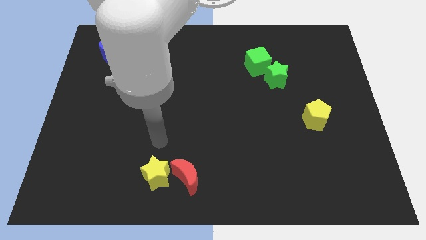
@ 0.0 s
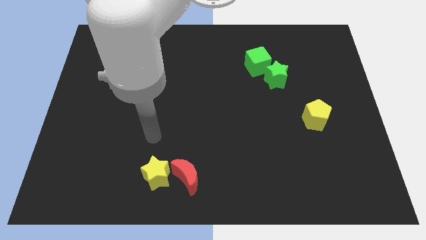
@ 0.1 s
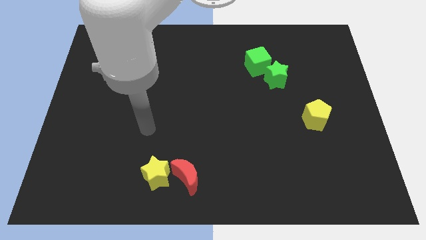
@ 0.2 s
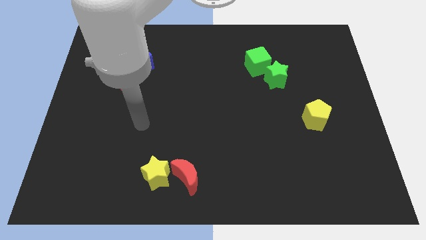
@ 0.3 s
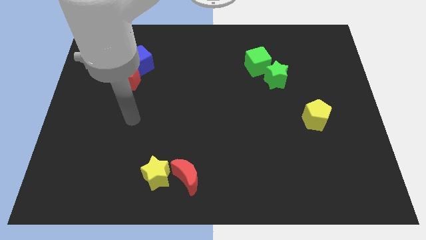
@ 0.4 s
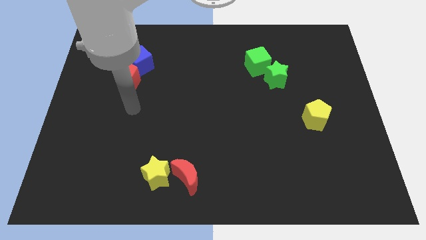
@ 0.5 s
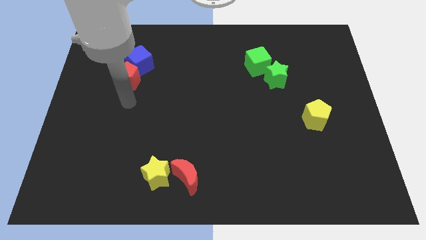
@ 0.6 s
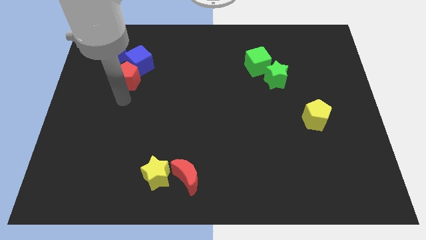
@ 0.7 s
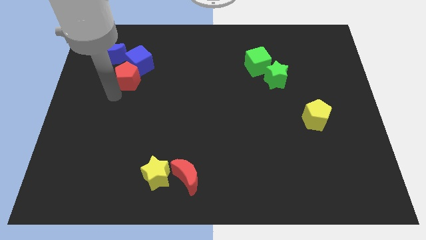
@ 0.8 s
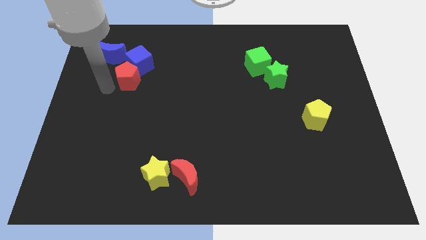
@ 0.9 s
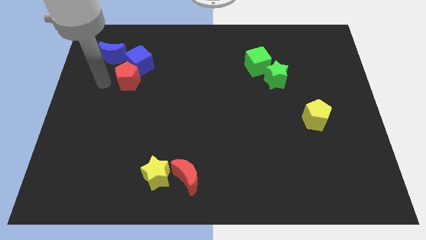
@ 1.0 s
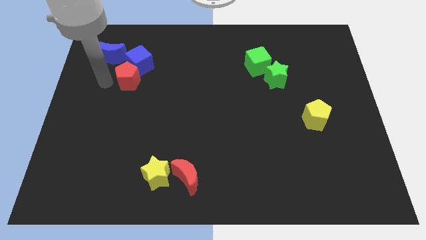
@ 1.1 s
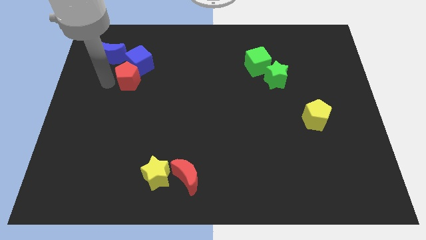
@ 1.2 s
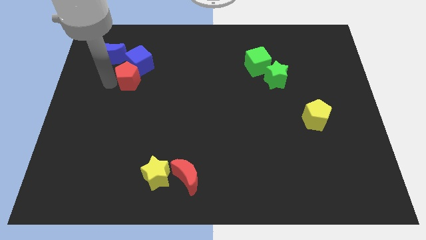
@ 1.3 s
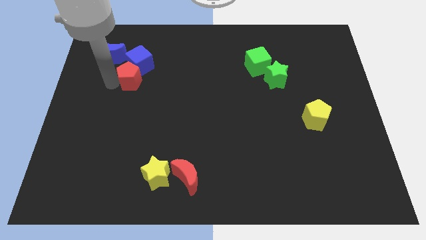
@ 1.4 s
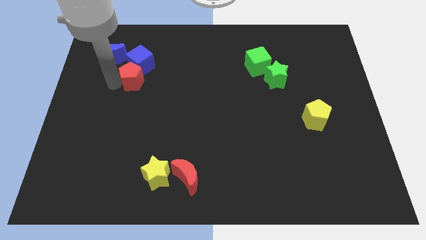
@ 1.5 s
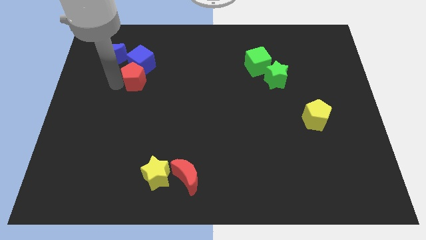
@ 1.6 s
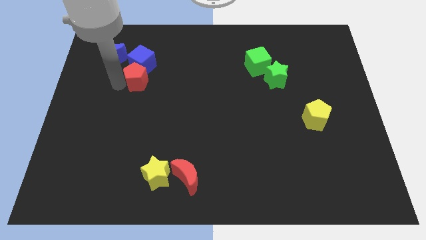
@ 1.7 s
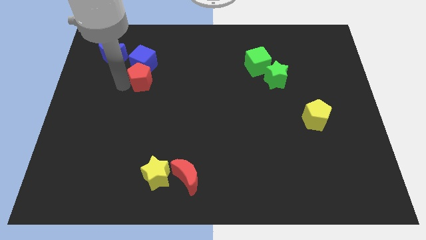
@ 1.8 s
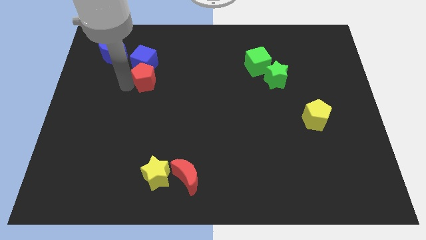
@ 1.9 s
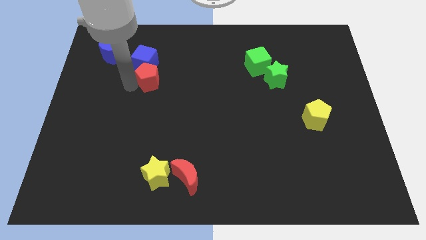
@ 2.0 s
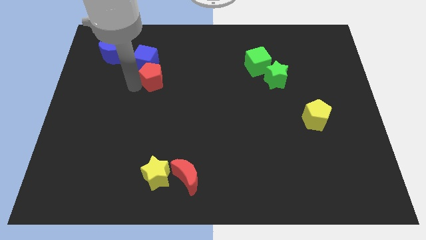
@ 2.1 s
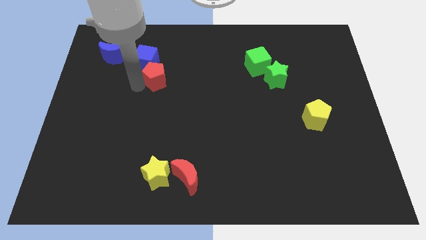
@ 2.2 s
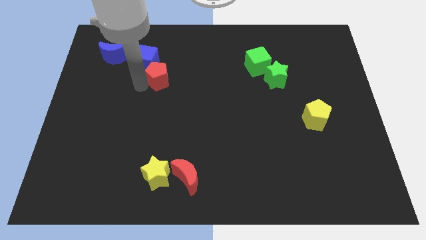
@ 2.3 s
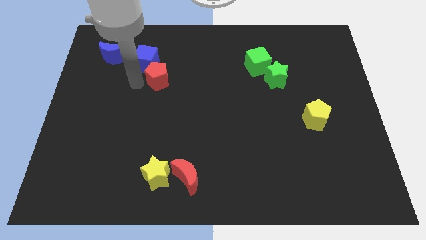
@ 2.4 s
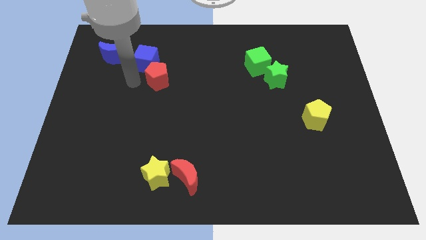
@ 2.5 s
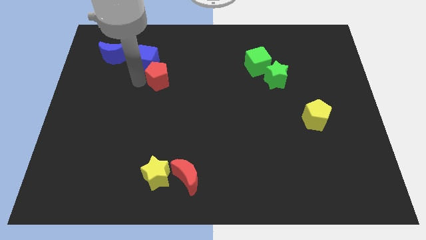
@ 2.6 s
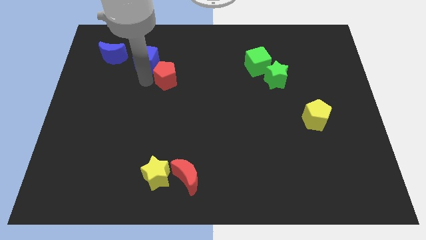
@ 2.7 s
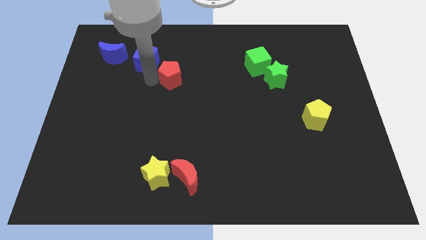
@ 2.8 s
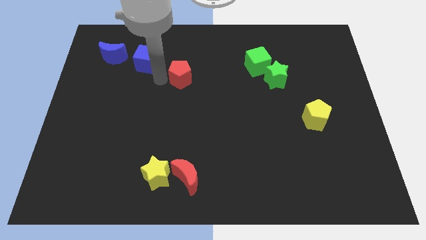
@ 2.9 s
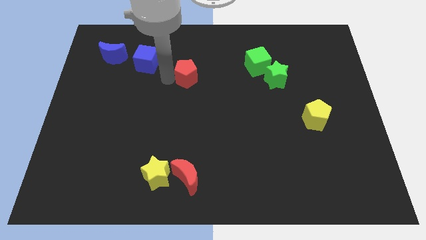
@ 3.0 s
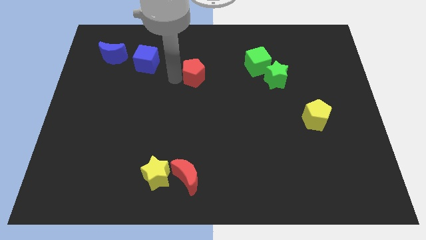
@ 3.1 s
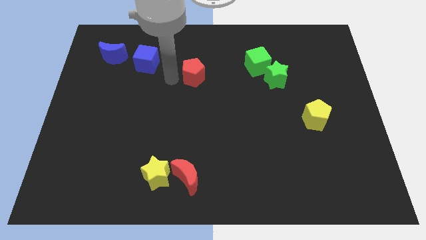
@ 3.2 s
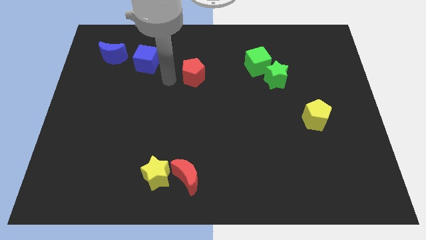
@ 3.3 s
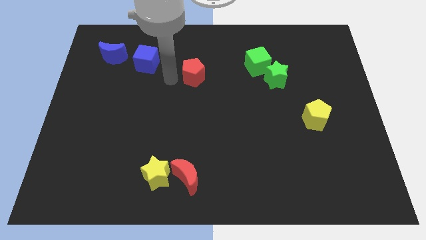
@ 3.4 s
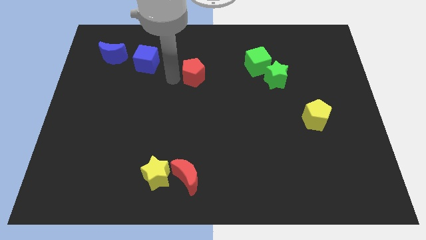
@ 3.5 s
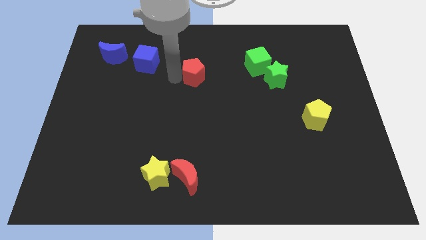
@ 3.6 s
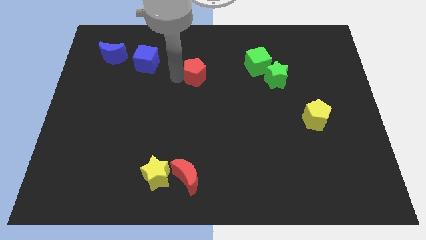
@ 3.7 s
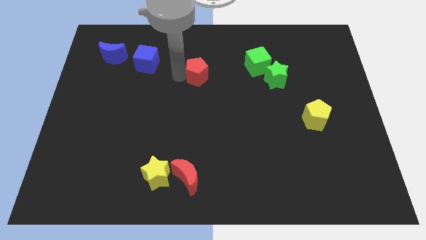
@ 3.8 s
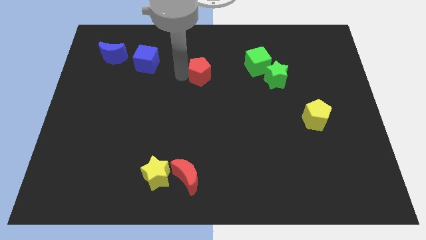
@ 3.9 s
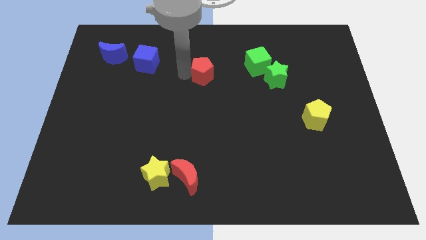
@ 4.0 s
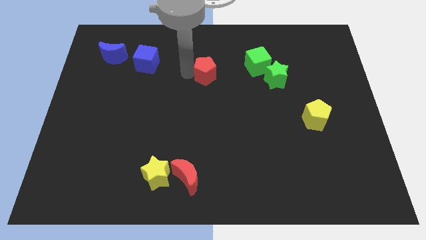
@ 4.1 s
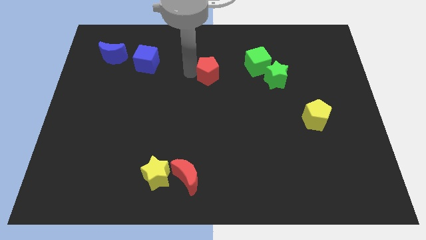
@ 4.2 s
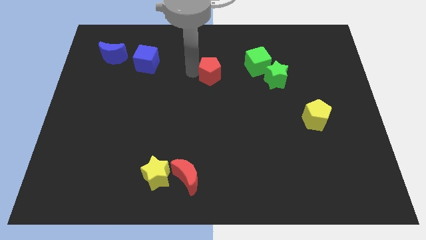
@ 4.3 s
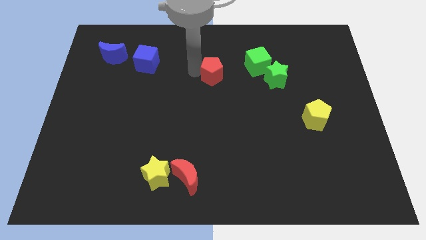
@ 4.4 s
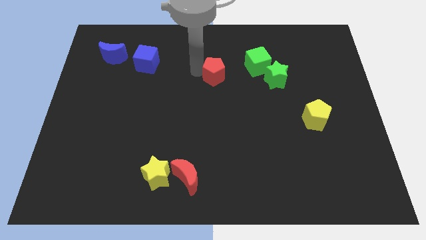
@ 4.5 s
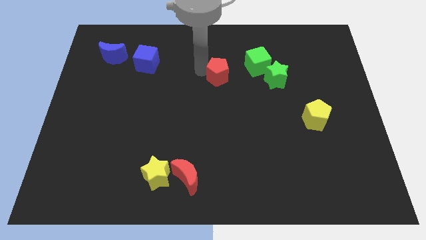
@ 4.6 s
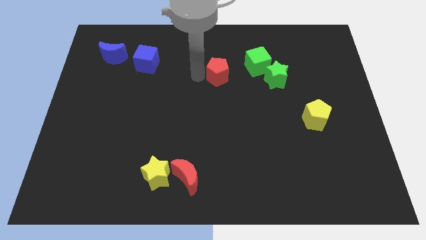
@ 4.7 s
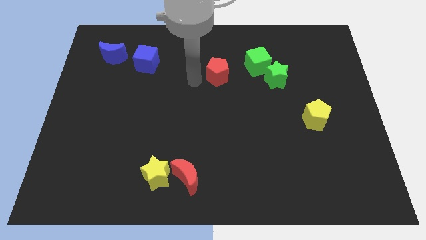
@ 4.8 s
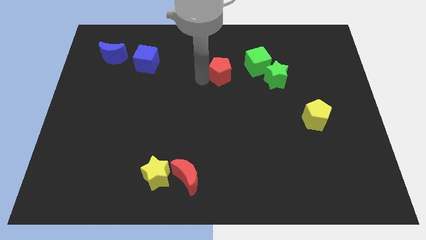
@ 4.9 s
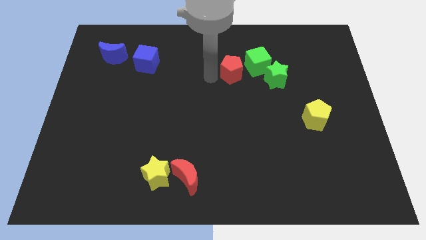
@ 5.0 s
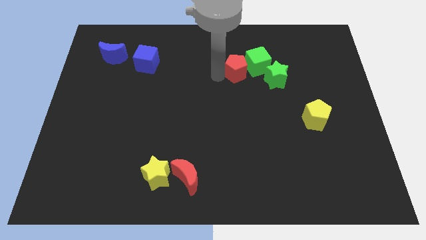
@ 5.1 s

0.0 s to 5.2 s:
slide the red pentagon to the green cube

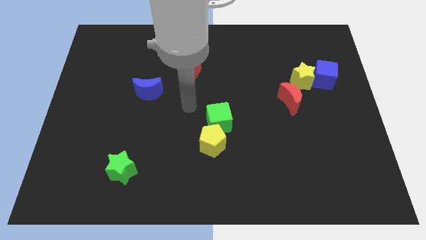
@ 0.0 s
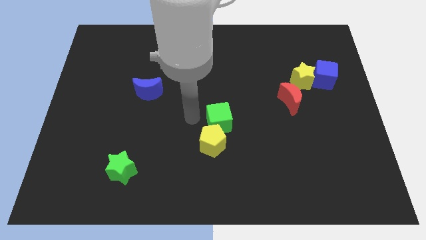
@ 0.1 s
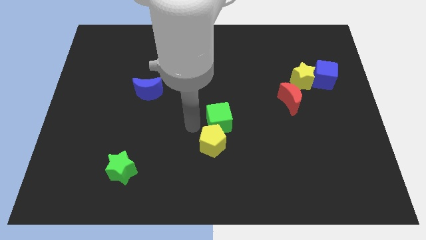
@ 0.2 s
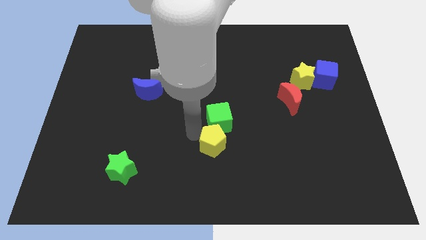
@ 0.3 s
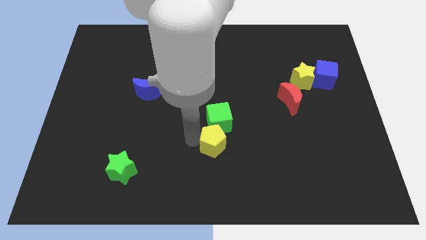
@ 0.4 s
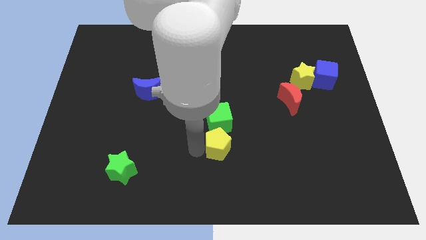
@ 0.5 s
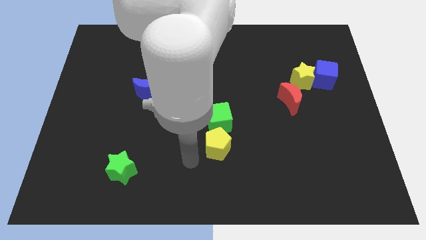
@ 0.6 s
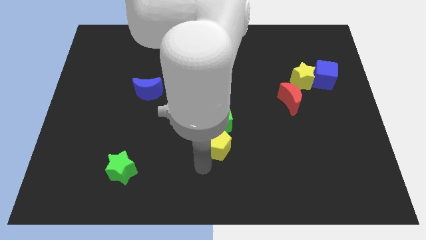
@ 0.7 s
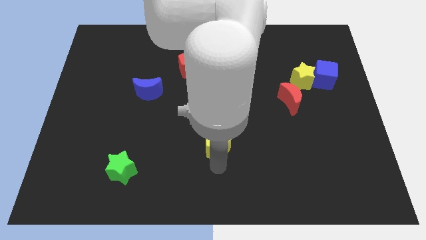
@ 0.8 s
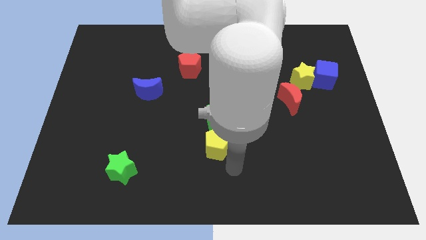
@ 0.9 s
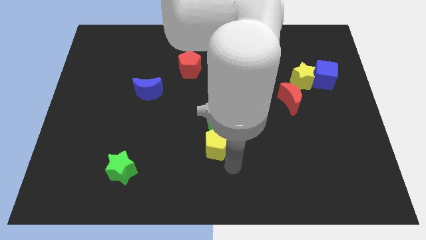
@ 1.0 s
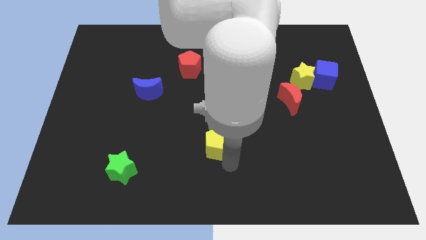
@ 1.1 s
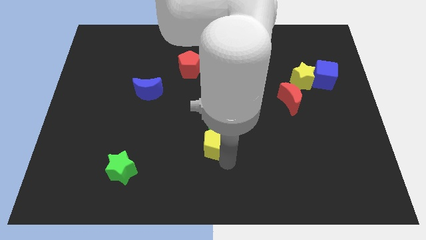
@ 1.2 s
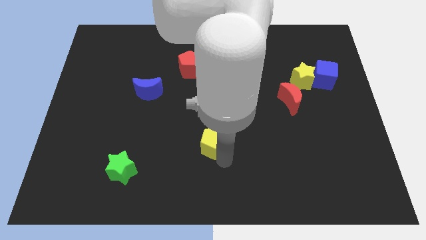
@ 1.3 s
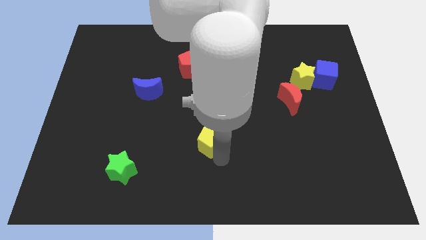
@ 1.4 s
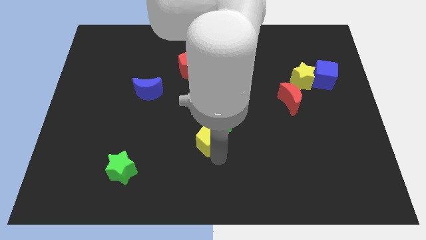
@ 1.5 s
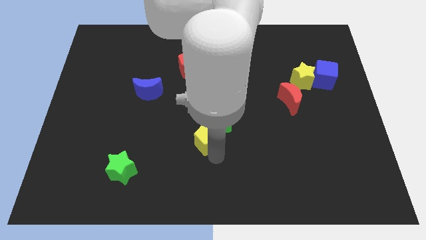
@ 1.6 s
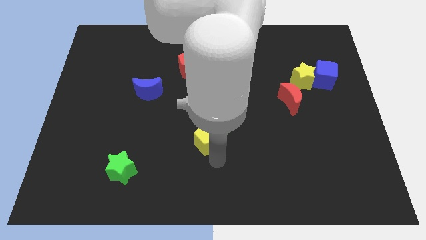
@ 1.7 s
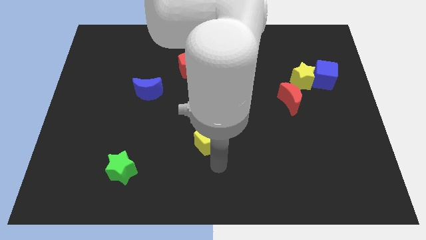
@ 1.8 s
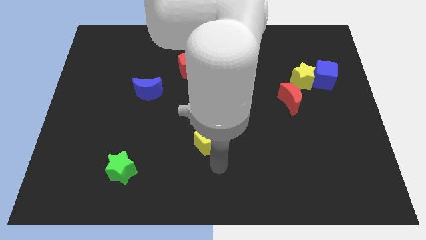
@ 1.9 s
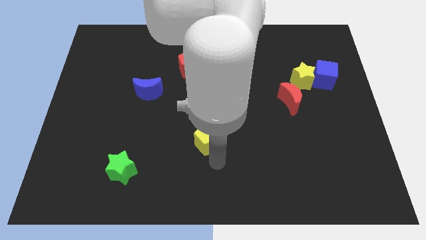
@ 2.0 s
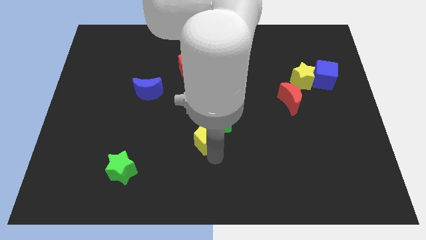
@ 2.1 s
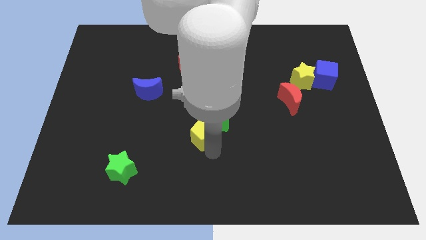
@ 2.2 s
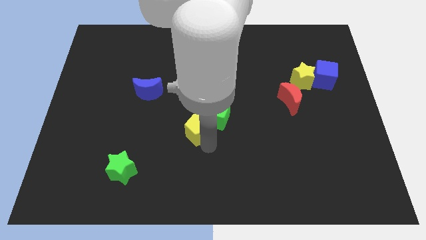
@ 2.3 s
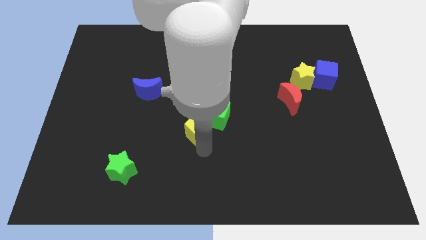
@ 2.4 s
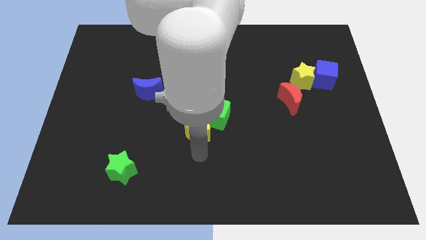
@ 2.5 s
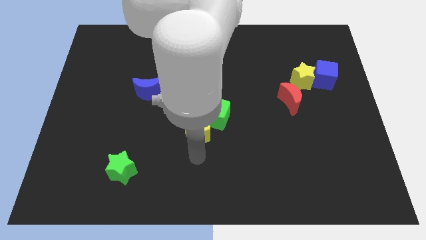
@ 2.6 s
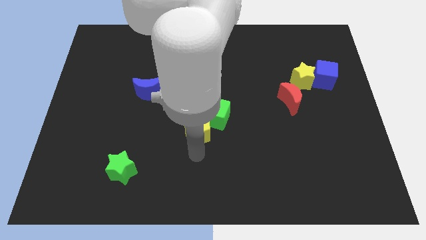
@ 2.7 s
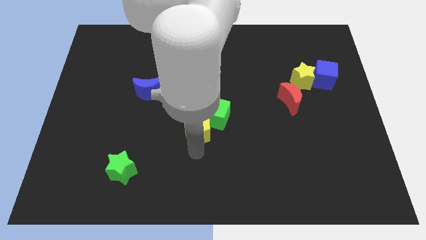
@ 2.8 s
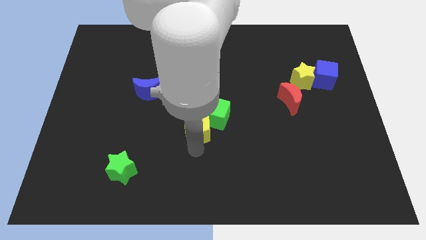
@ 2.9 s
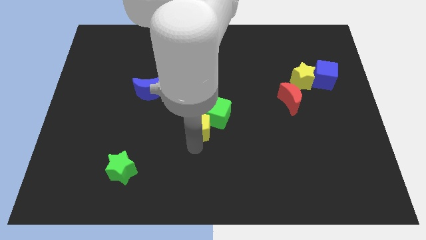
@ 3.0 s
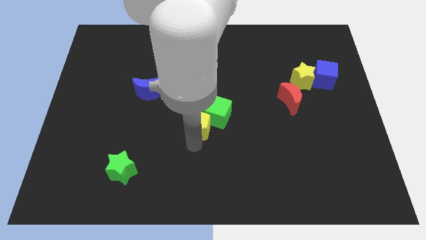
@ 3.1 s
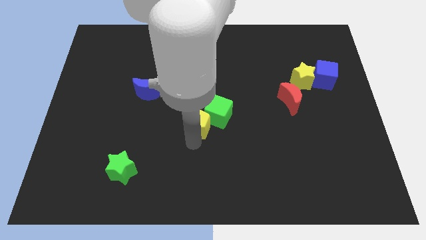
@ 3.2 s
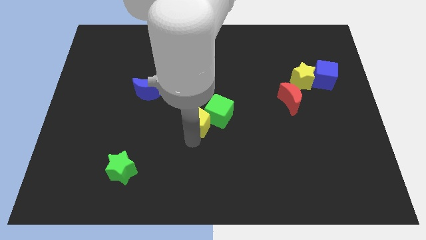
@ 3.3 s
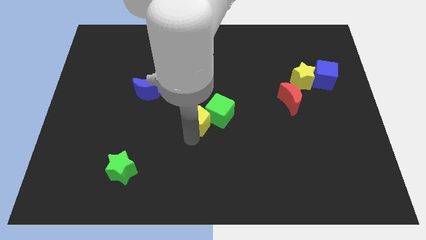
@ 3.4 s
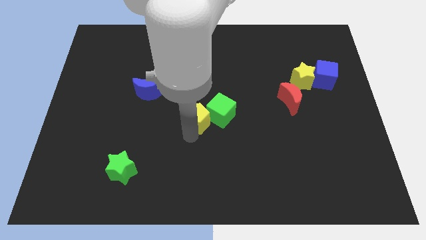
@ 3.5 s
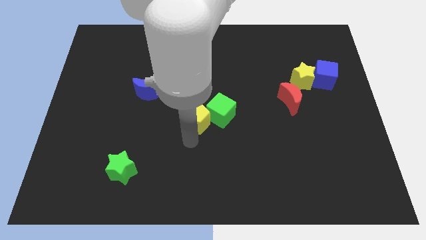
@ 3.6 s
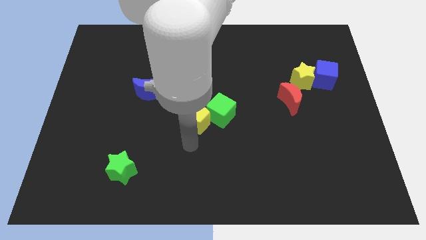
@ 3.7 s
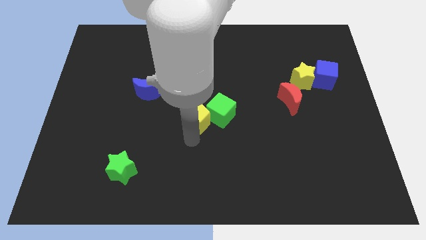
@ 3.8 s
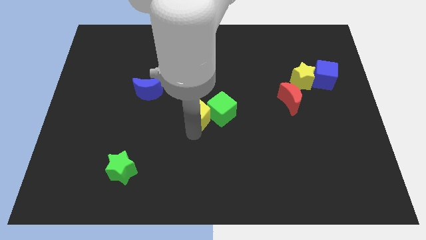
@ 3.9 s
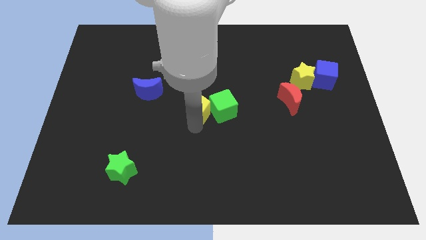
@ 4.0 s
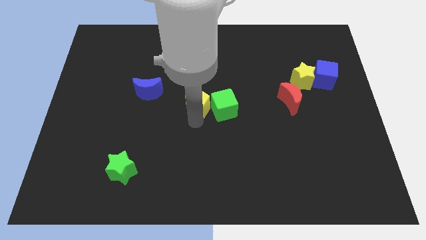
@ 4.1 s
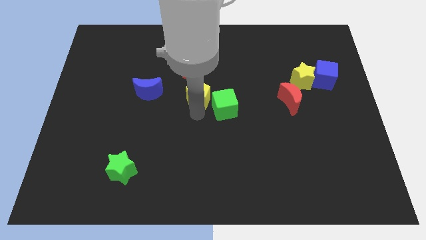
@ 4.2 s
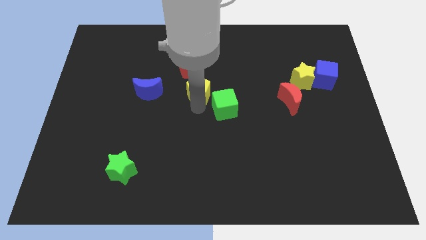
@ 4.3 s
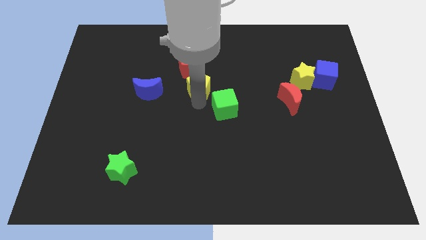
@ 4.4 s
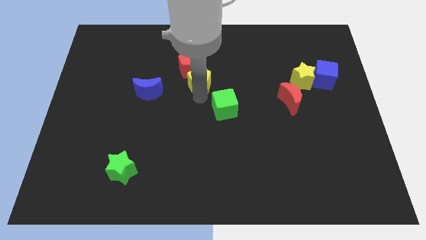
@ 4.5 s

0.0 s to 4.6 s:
slide the yellow pentagon next to the red pentagon
